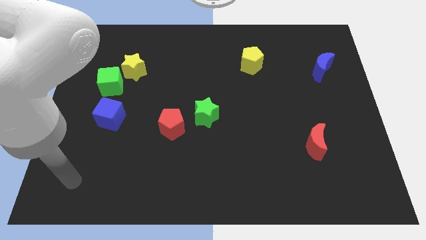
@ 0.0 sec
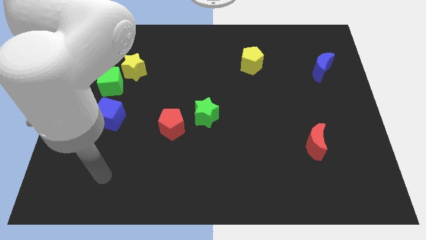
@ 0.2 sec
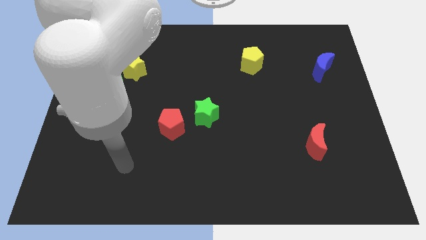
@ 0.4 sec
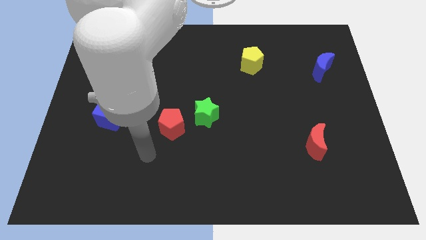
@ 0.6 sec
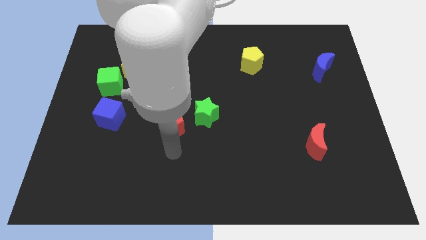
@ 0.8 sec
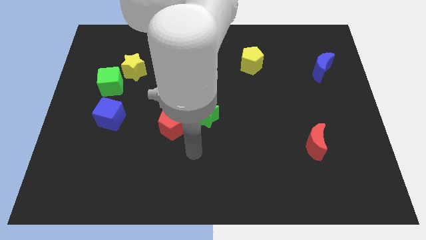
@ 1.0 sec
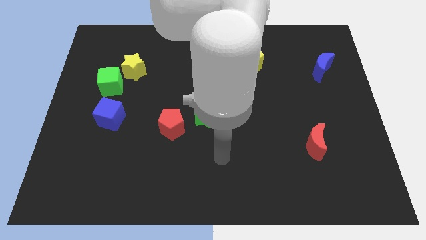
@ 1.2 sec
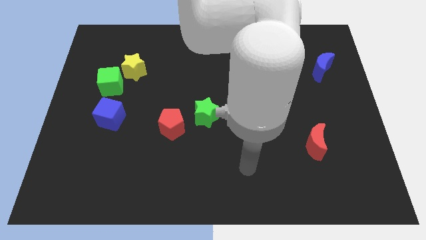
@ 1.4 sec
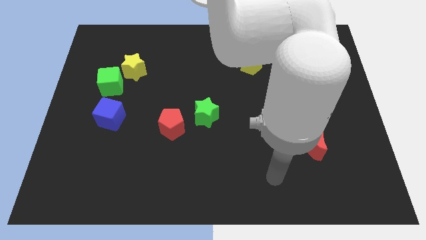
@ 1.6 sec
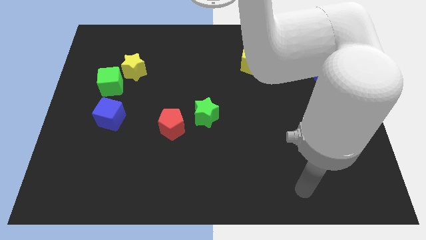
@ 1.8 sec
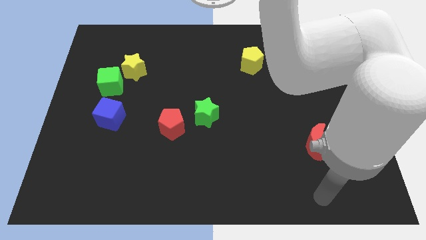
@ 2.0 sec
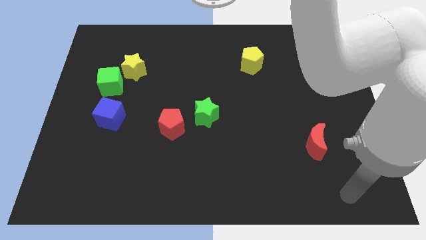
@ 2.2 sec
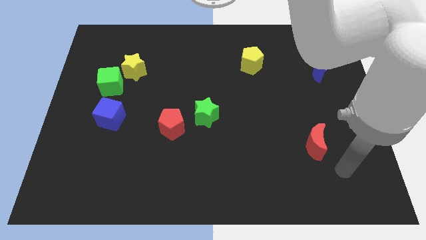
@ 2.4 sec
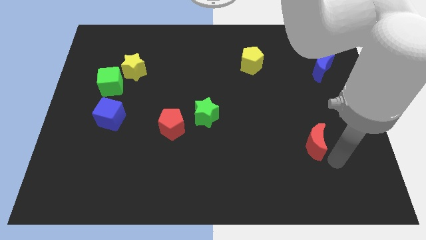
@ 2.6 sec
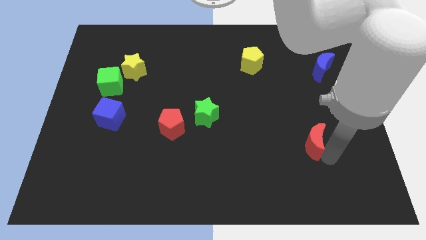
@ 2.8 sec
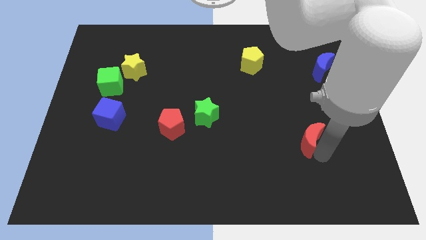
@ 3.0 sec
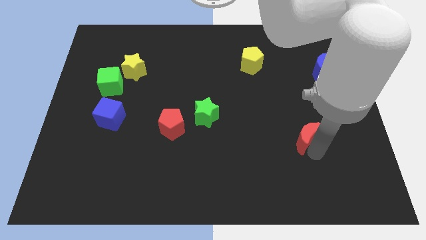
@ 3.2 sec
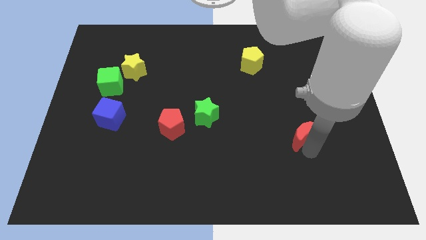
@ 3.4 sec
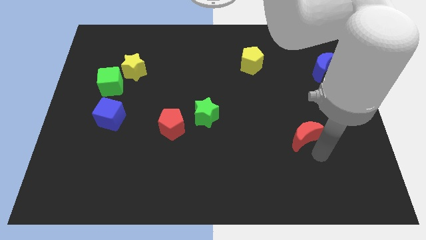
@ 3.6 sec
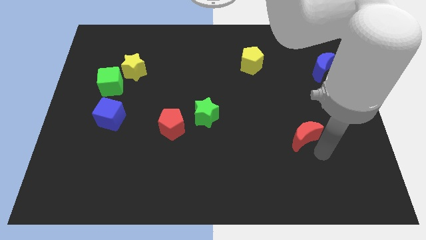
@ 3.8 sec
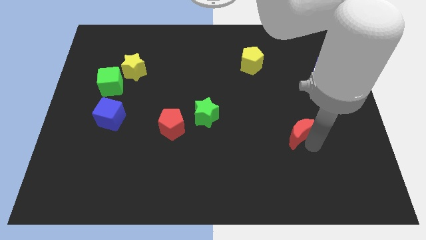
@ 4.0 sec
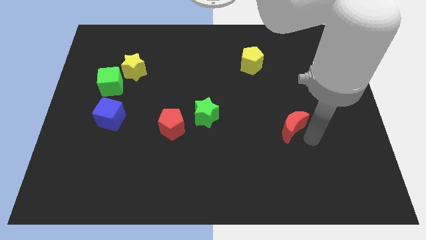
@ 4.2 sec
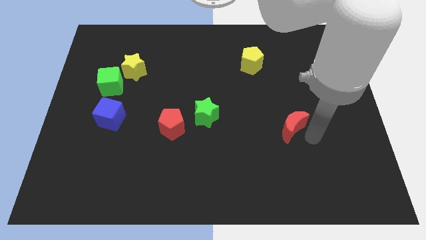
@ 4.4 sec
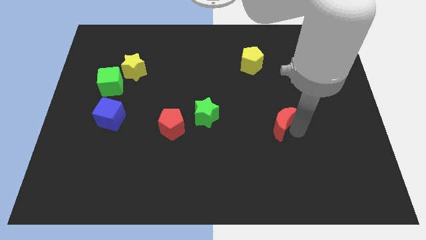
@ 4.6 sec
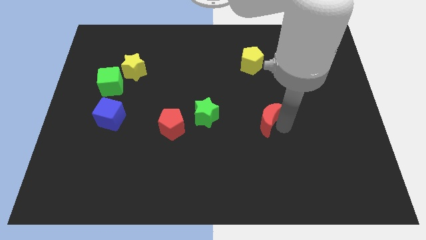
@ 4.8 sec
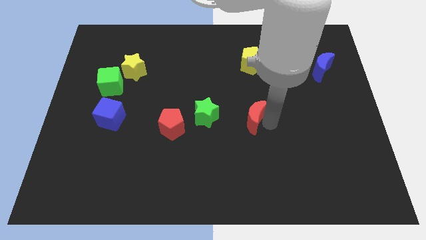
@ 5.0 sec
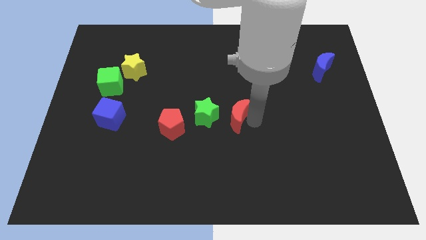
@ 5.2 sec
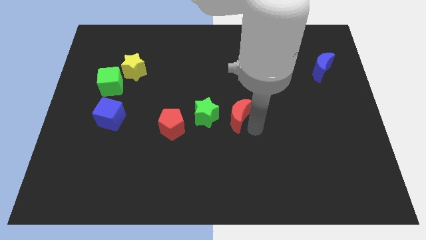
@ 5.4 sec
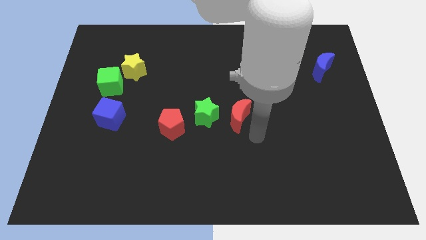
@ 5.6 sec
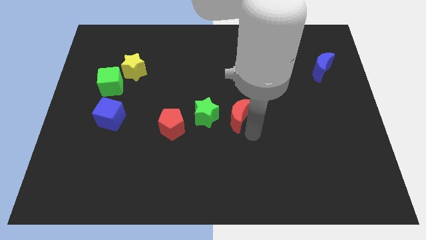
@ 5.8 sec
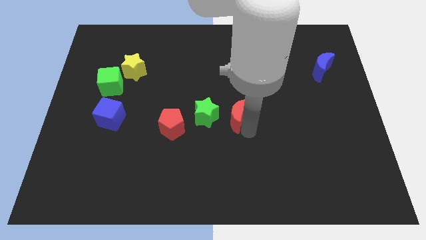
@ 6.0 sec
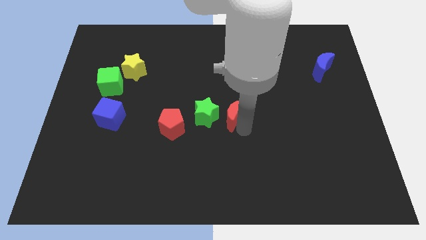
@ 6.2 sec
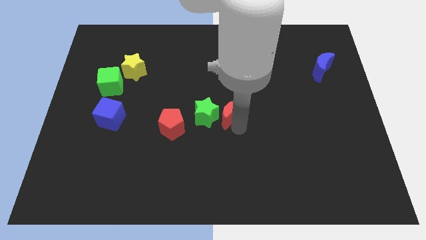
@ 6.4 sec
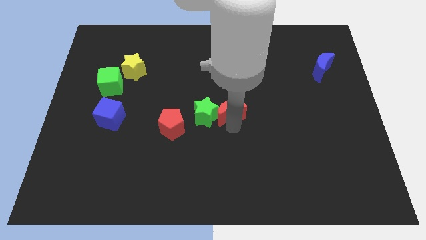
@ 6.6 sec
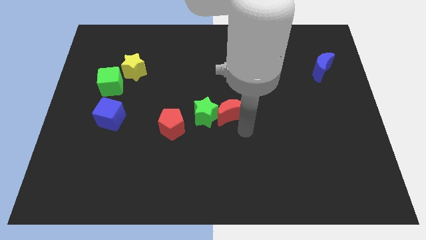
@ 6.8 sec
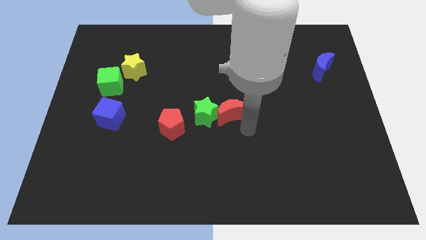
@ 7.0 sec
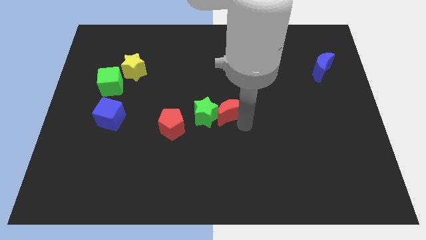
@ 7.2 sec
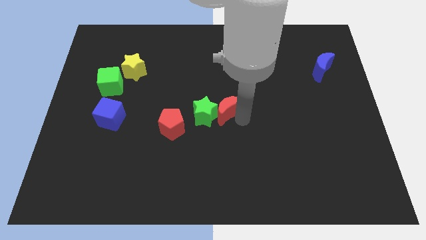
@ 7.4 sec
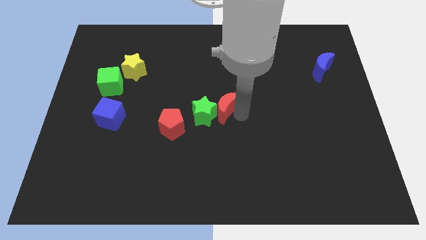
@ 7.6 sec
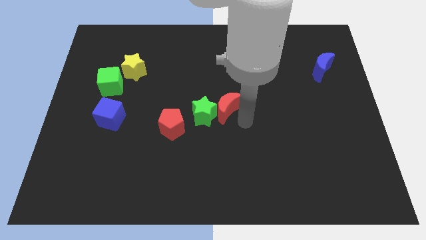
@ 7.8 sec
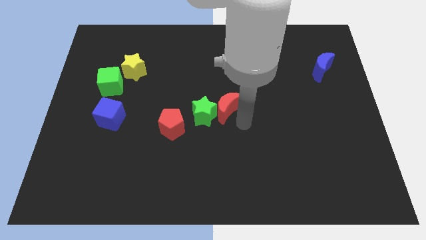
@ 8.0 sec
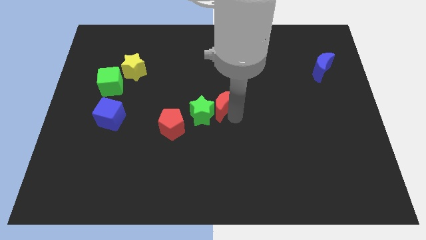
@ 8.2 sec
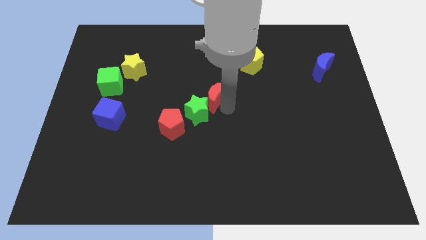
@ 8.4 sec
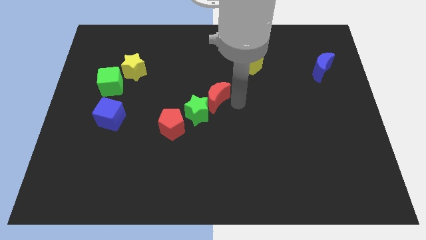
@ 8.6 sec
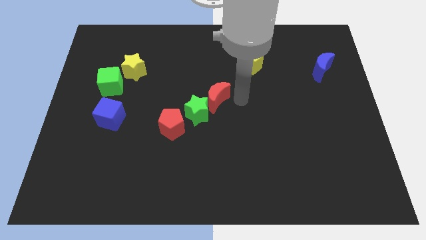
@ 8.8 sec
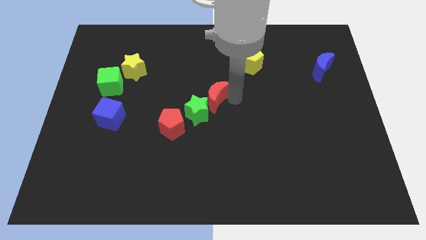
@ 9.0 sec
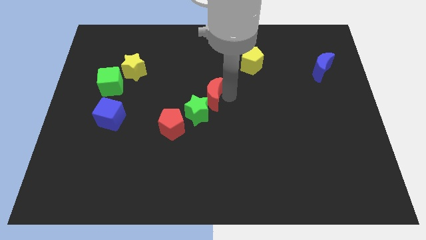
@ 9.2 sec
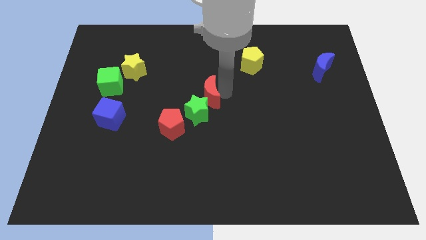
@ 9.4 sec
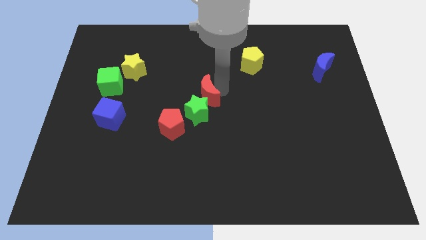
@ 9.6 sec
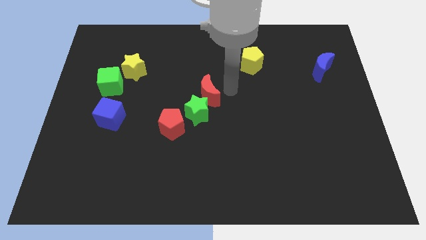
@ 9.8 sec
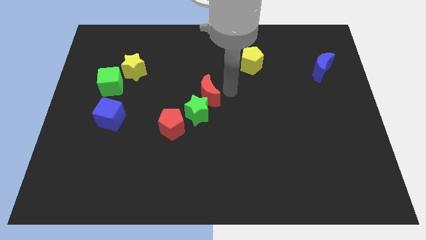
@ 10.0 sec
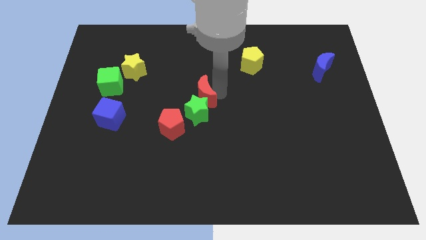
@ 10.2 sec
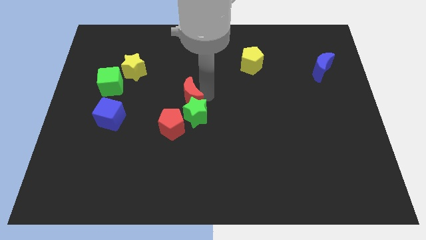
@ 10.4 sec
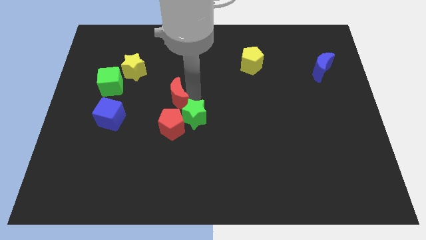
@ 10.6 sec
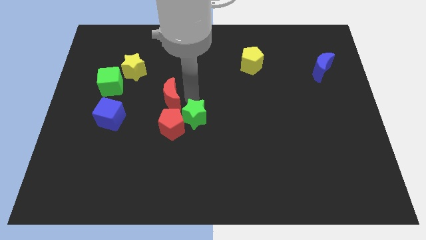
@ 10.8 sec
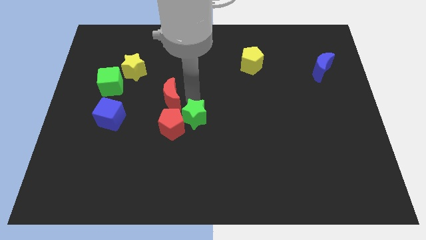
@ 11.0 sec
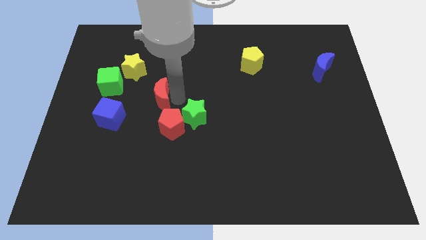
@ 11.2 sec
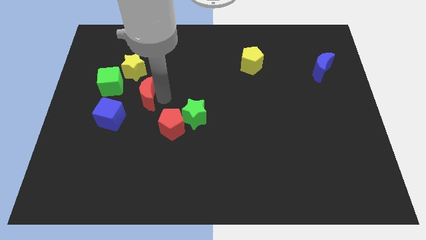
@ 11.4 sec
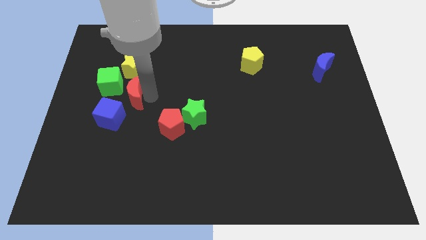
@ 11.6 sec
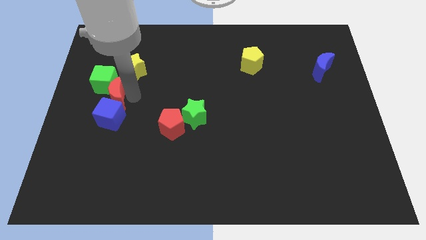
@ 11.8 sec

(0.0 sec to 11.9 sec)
move the red moon diagonally up and to the left of the blue cube

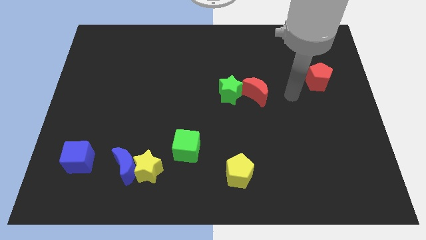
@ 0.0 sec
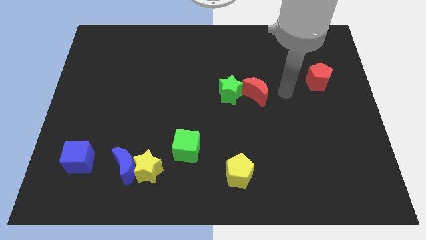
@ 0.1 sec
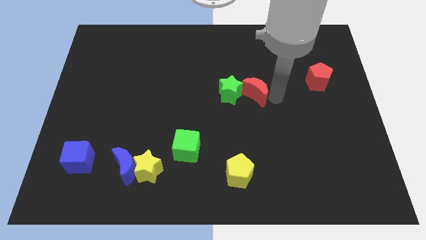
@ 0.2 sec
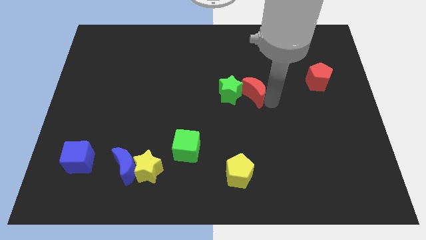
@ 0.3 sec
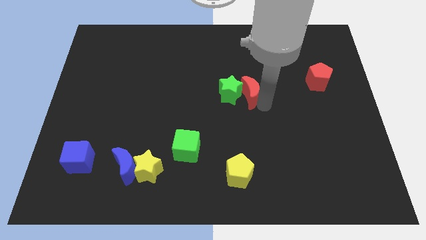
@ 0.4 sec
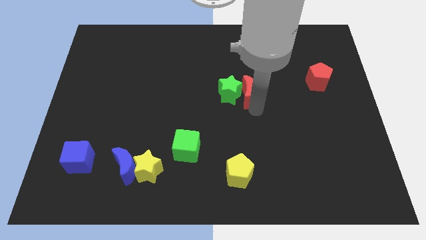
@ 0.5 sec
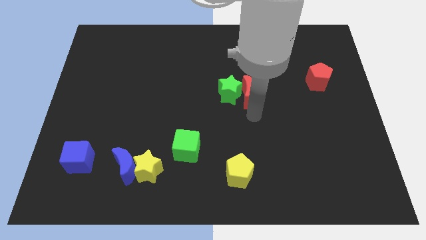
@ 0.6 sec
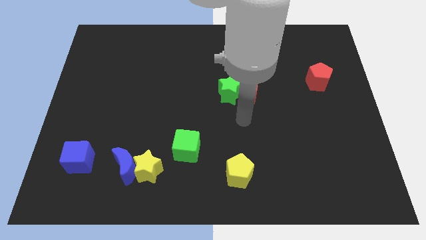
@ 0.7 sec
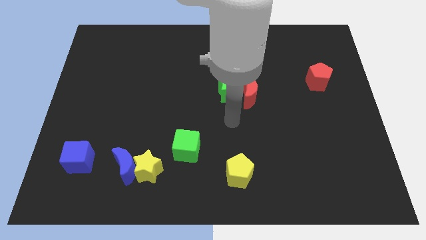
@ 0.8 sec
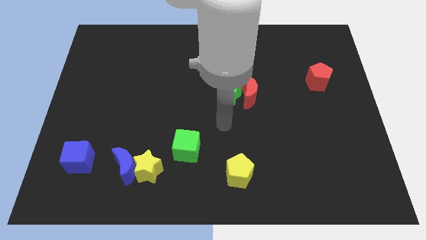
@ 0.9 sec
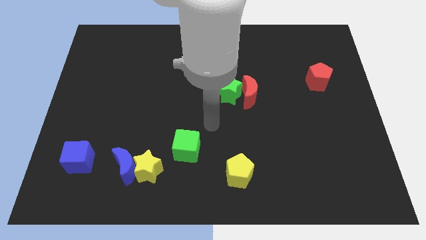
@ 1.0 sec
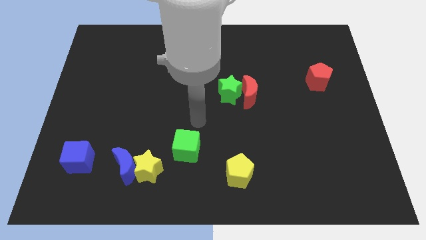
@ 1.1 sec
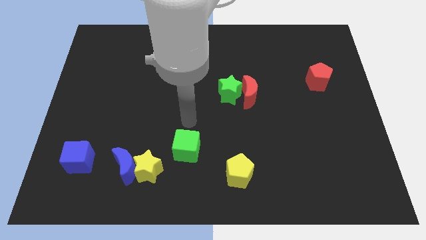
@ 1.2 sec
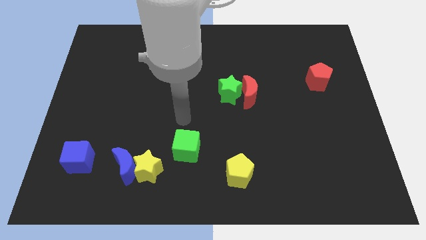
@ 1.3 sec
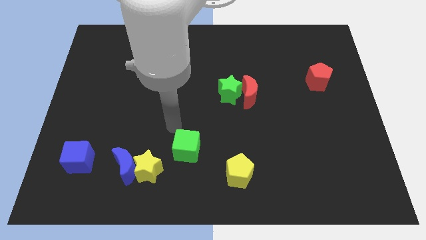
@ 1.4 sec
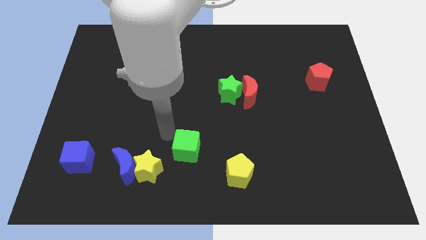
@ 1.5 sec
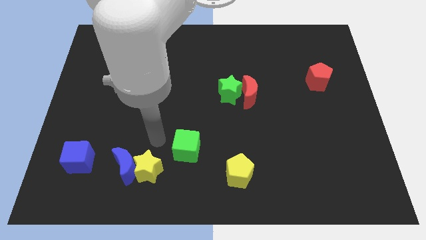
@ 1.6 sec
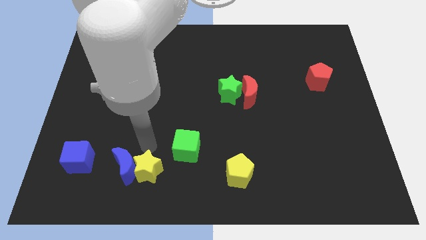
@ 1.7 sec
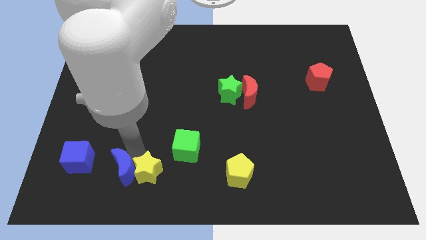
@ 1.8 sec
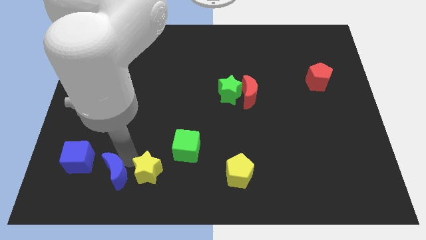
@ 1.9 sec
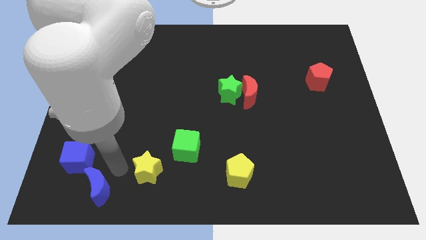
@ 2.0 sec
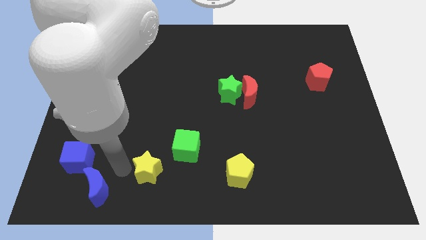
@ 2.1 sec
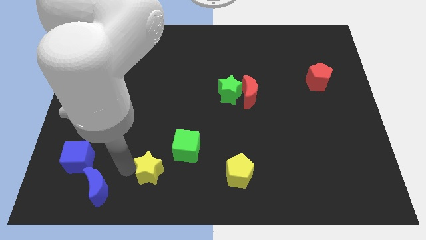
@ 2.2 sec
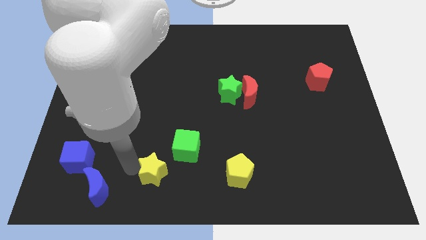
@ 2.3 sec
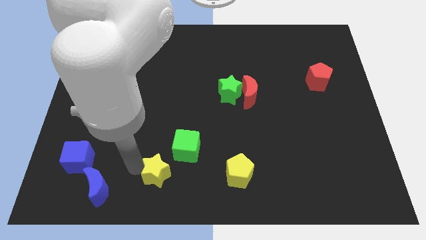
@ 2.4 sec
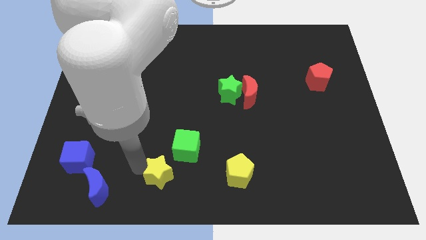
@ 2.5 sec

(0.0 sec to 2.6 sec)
move the yellow star just left of the yellow pentagon
